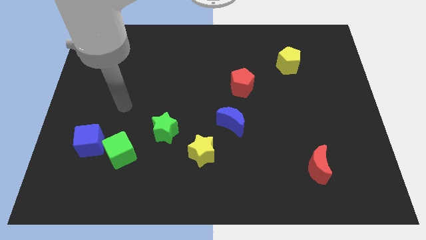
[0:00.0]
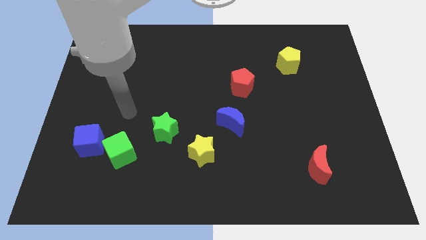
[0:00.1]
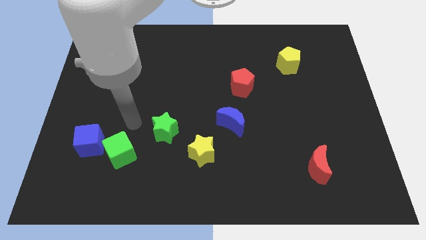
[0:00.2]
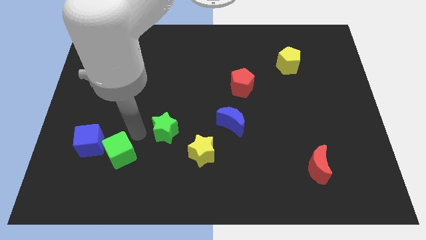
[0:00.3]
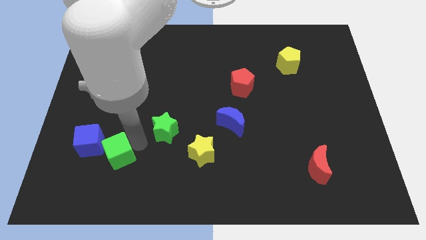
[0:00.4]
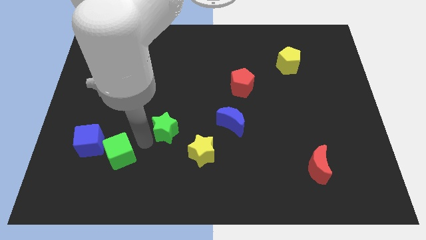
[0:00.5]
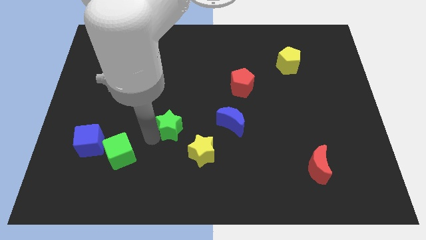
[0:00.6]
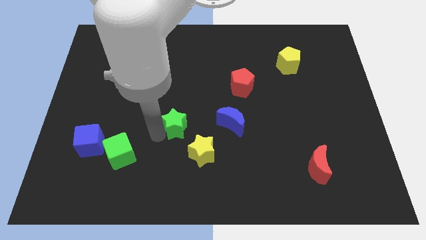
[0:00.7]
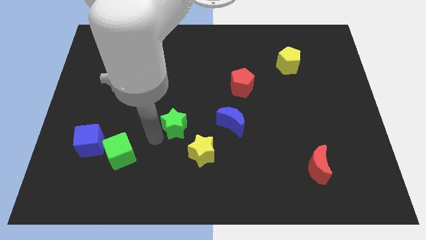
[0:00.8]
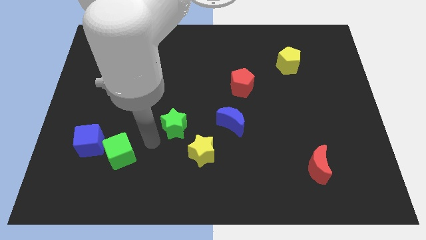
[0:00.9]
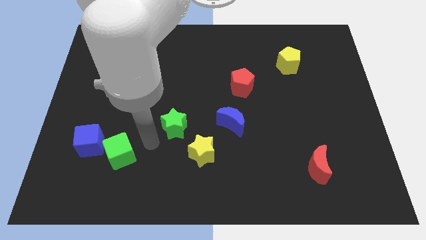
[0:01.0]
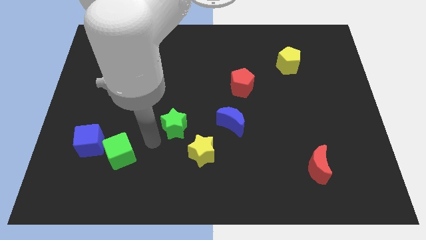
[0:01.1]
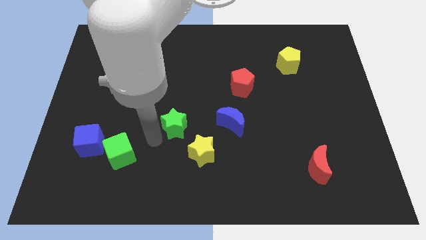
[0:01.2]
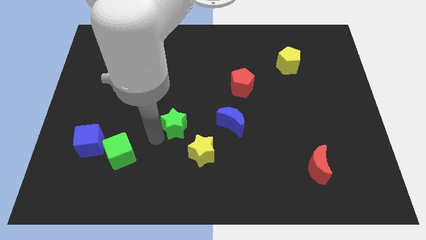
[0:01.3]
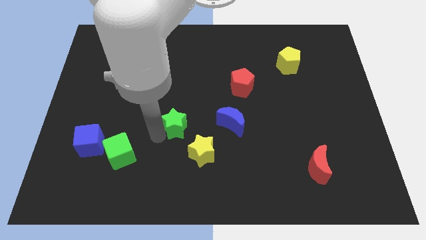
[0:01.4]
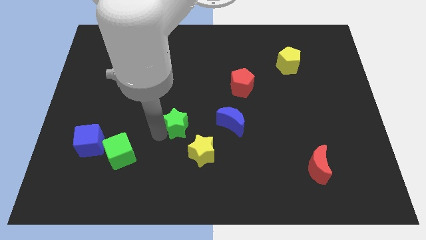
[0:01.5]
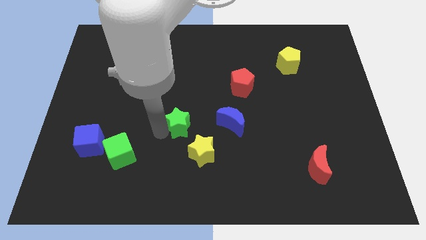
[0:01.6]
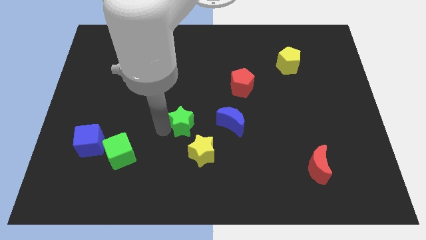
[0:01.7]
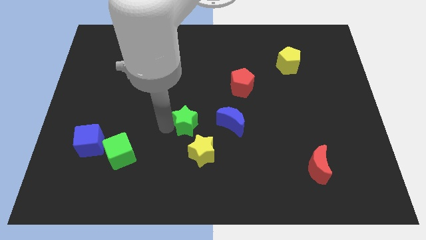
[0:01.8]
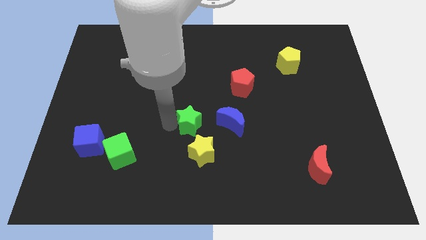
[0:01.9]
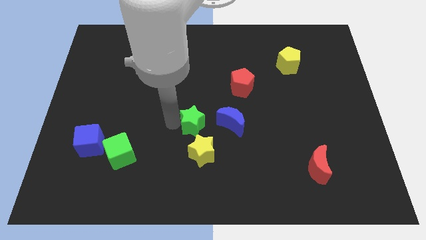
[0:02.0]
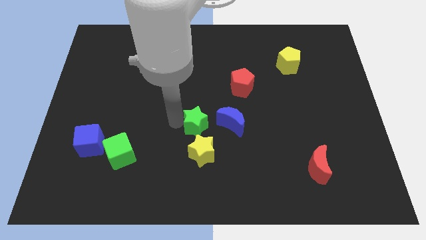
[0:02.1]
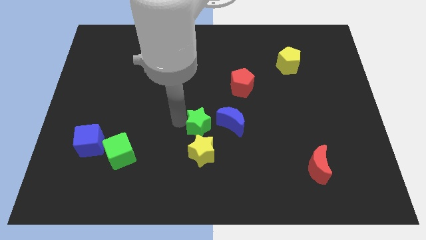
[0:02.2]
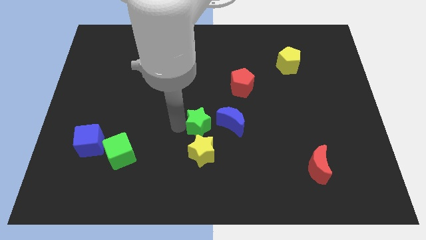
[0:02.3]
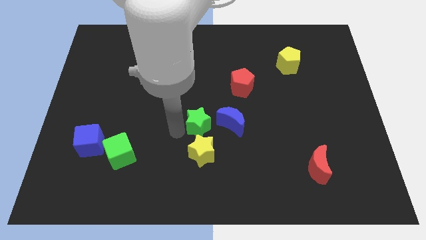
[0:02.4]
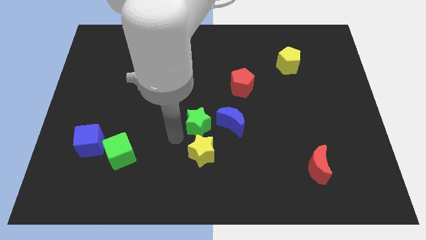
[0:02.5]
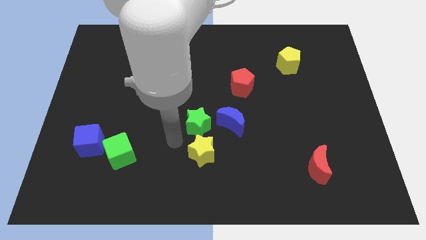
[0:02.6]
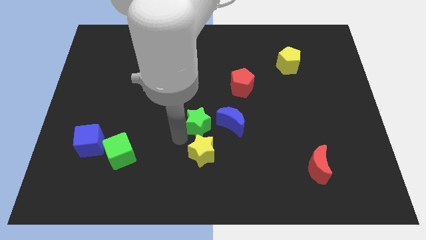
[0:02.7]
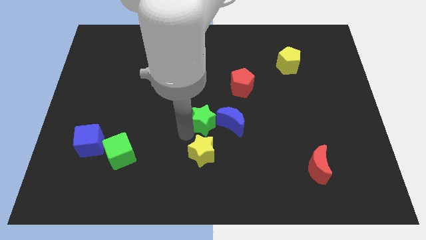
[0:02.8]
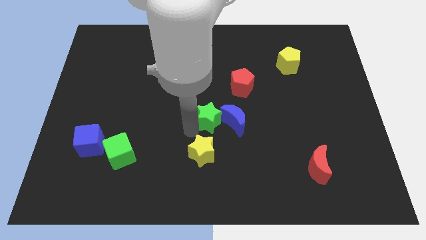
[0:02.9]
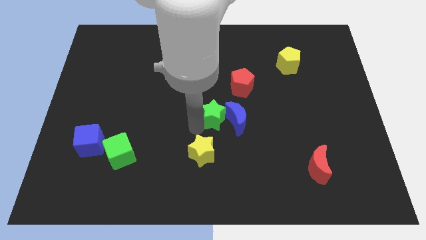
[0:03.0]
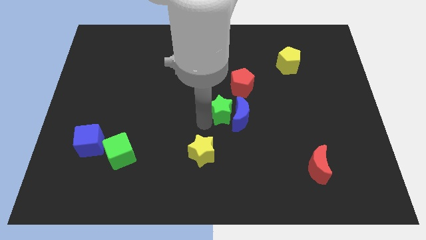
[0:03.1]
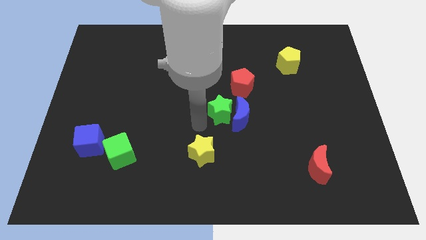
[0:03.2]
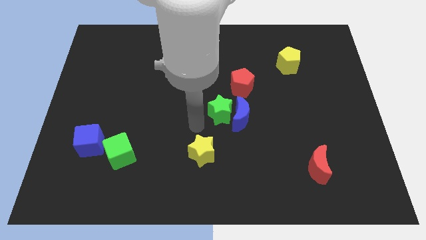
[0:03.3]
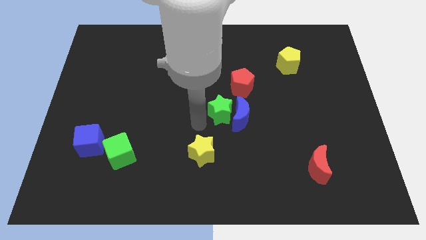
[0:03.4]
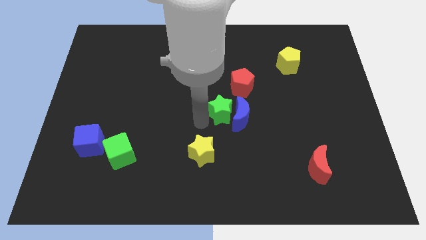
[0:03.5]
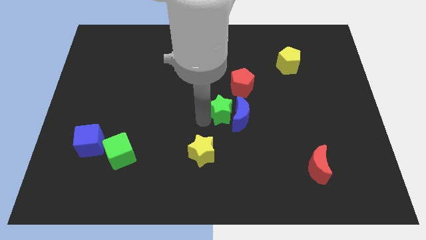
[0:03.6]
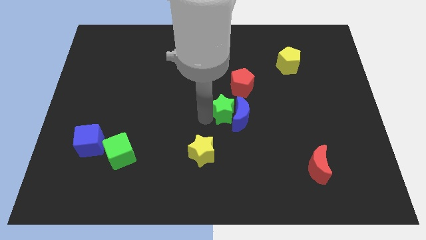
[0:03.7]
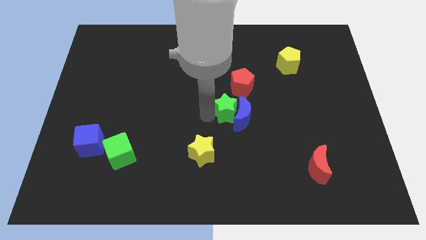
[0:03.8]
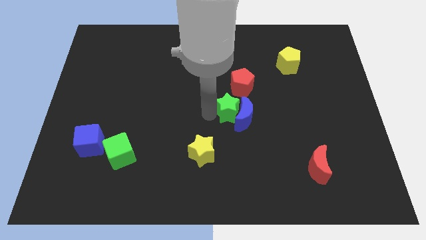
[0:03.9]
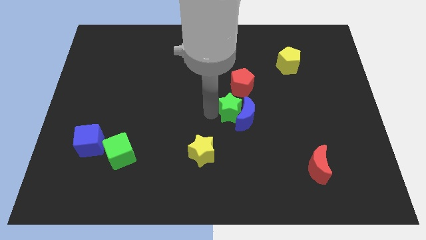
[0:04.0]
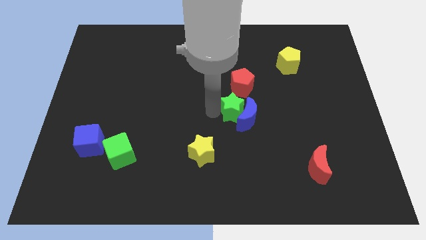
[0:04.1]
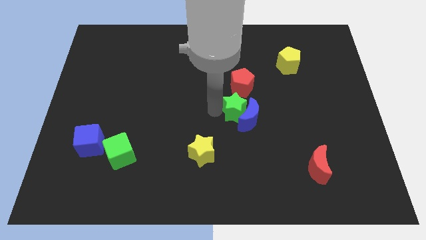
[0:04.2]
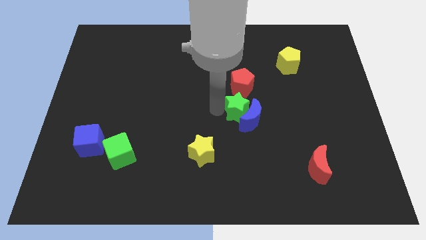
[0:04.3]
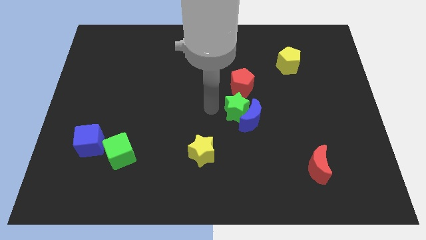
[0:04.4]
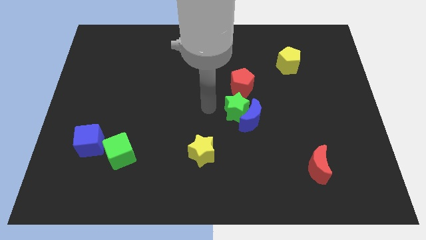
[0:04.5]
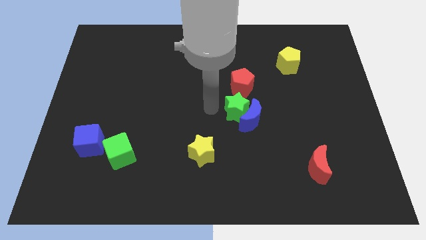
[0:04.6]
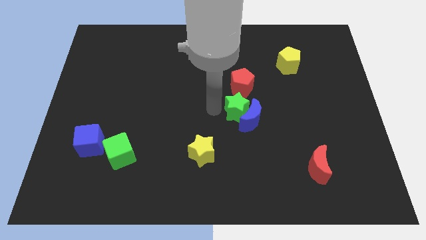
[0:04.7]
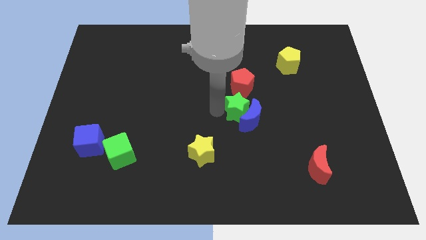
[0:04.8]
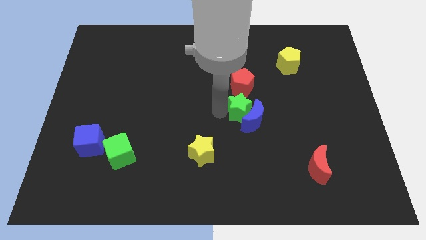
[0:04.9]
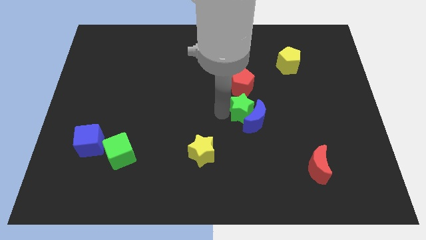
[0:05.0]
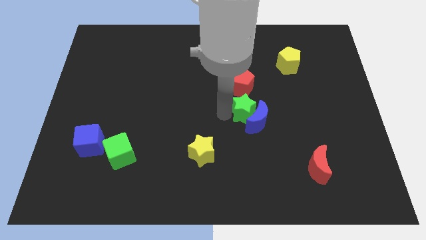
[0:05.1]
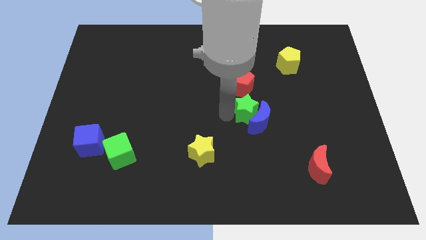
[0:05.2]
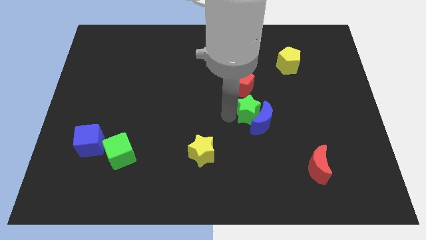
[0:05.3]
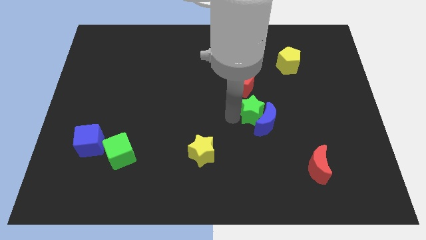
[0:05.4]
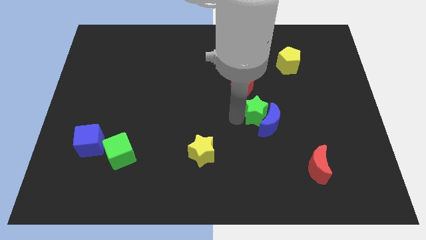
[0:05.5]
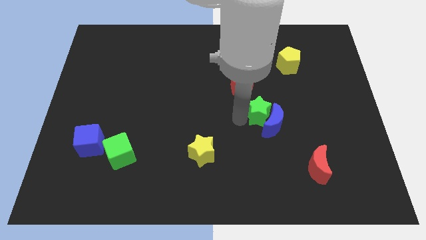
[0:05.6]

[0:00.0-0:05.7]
push the green star to the right

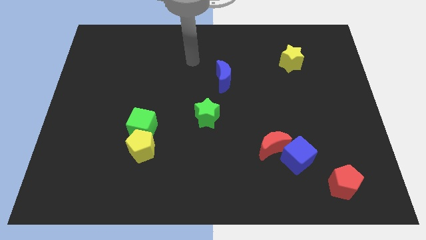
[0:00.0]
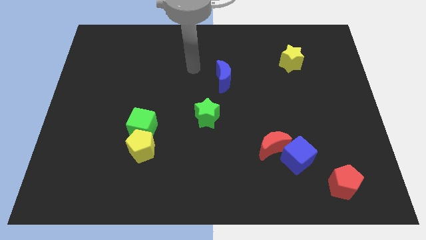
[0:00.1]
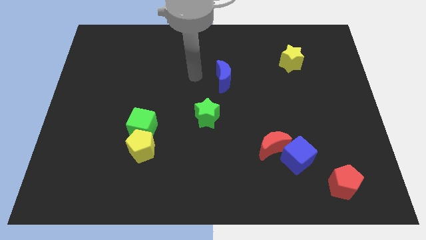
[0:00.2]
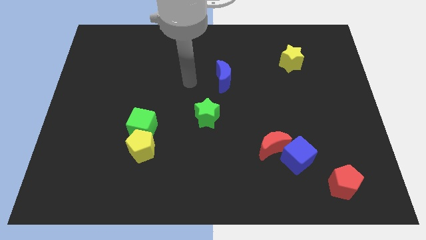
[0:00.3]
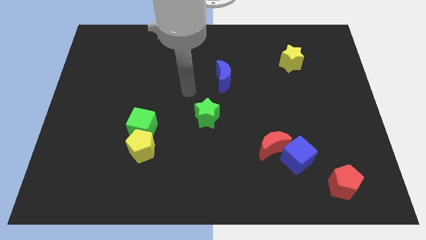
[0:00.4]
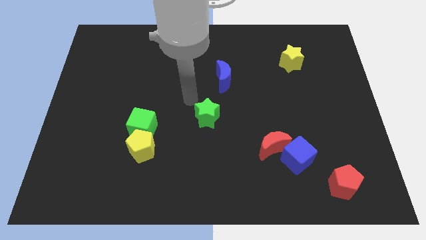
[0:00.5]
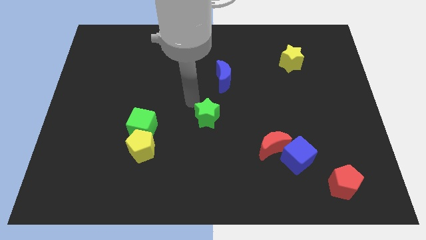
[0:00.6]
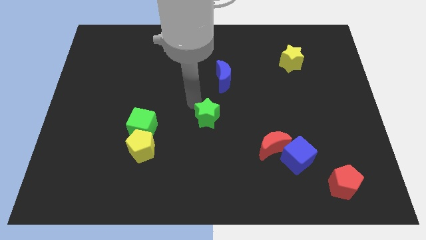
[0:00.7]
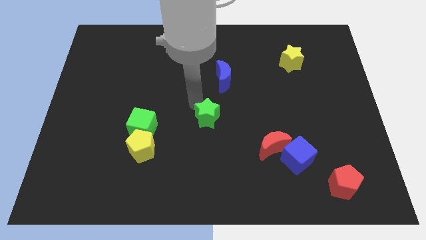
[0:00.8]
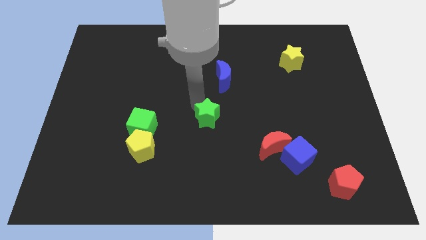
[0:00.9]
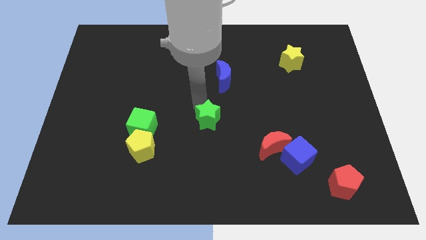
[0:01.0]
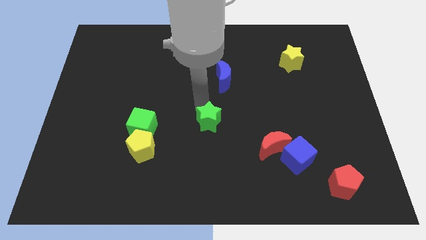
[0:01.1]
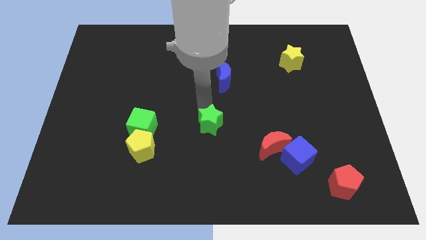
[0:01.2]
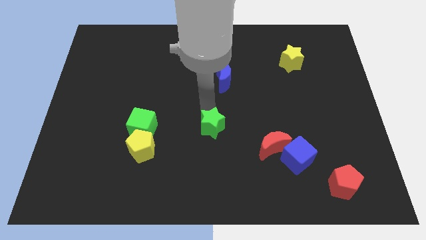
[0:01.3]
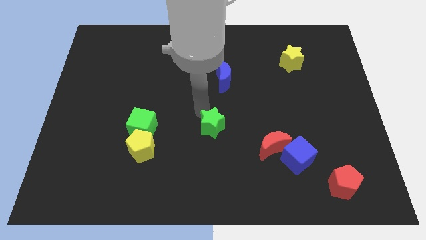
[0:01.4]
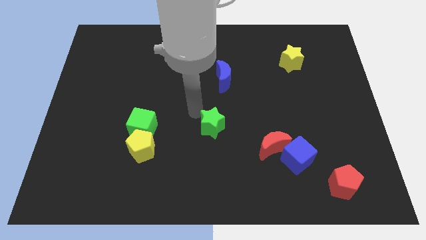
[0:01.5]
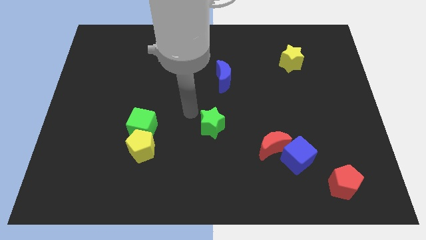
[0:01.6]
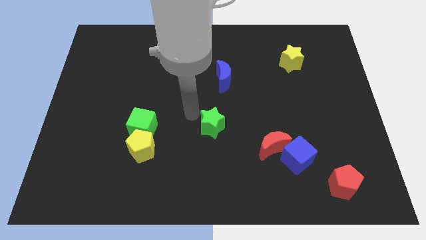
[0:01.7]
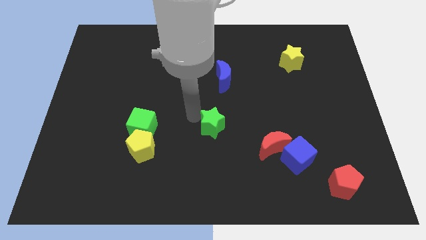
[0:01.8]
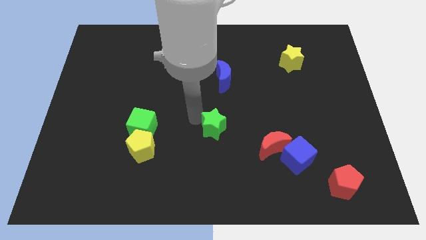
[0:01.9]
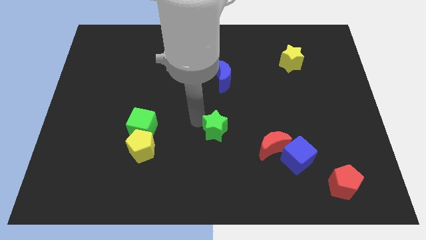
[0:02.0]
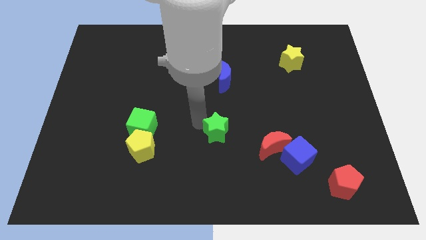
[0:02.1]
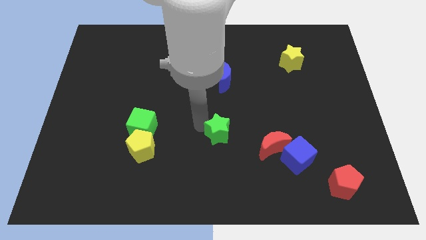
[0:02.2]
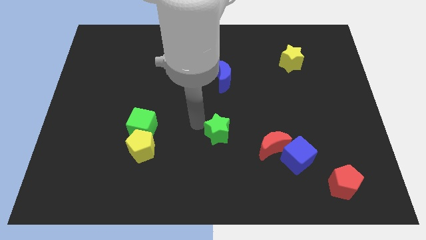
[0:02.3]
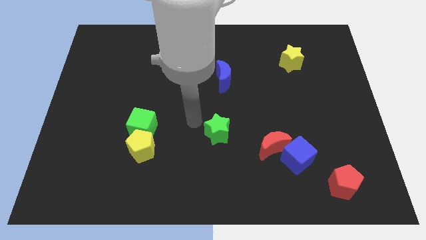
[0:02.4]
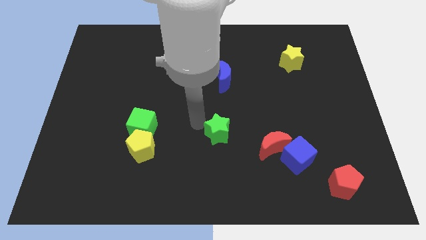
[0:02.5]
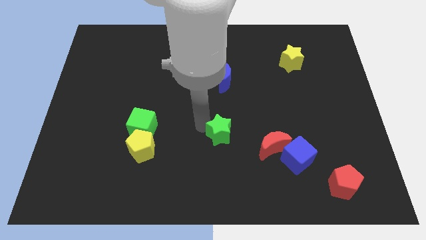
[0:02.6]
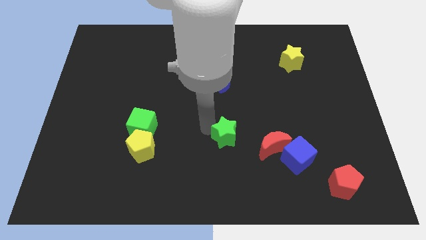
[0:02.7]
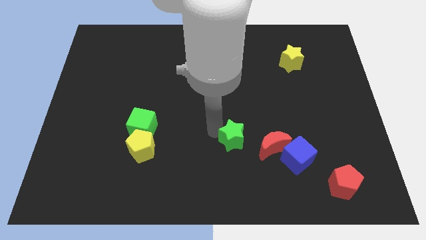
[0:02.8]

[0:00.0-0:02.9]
move the green star diagonally downwards and right slightly
